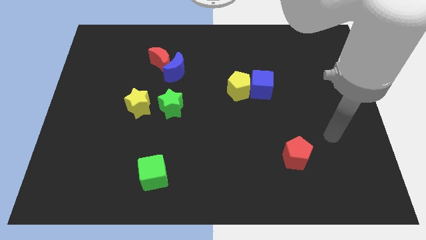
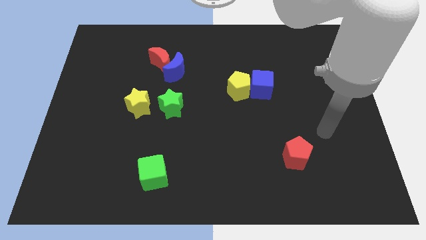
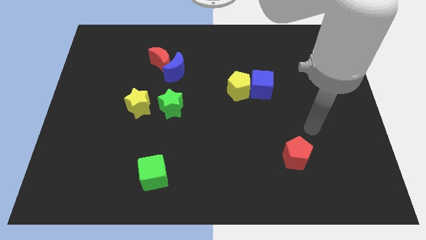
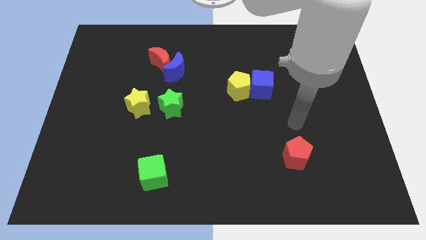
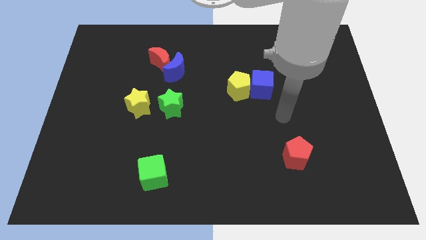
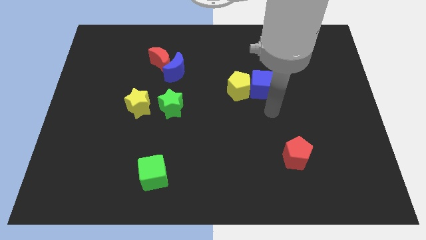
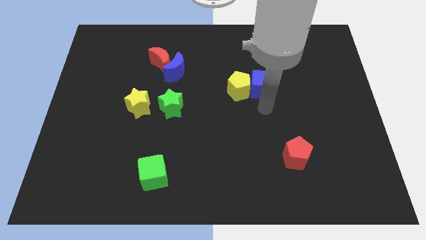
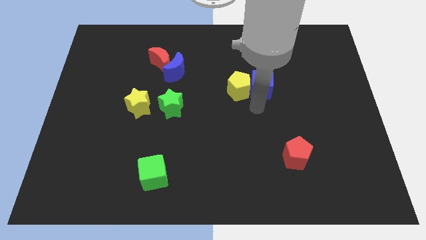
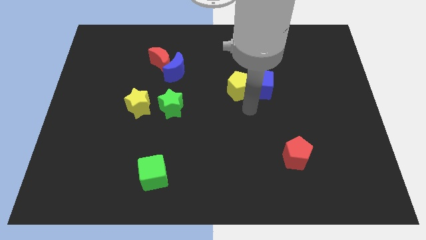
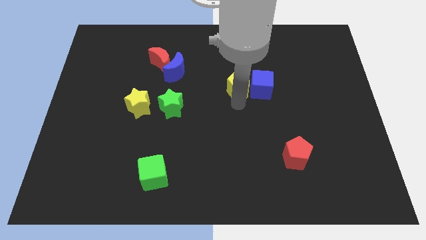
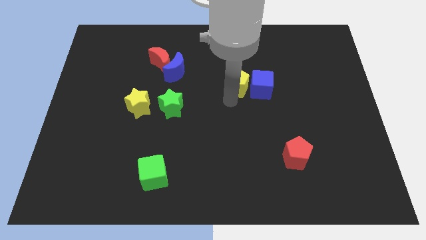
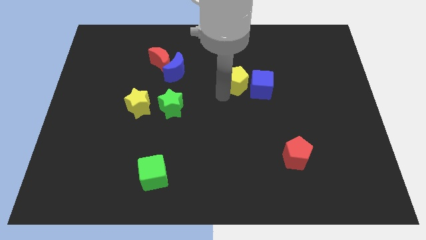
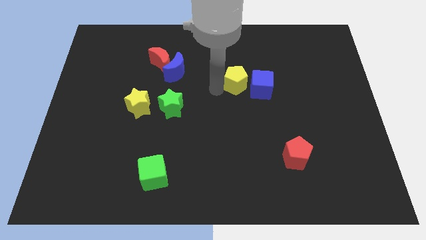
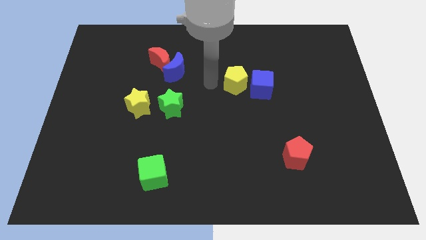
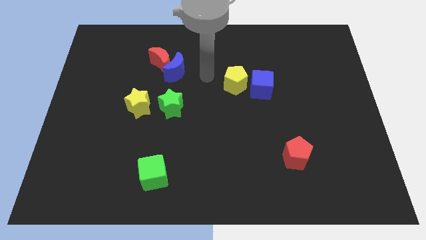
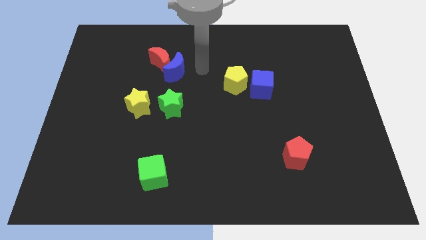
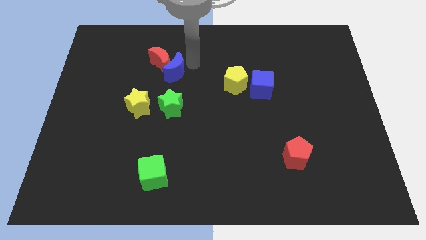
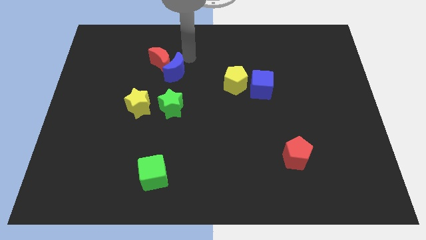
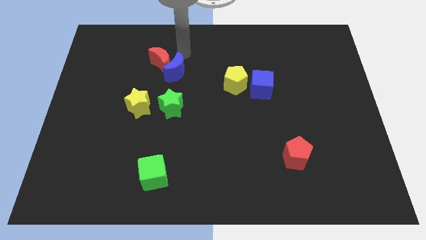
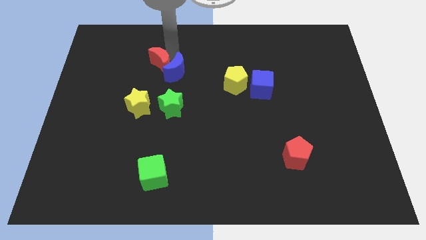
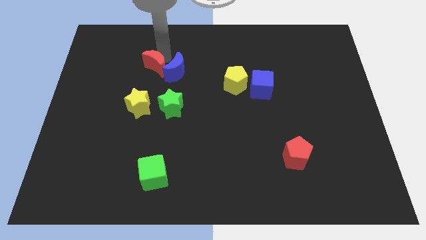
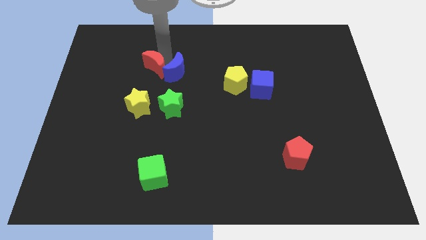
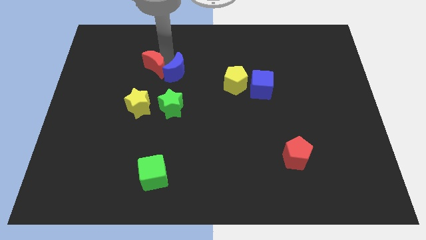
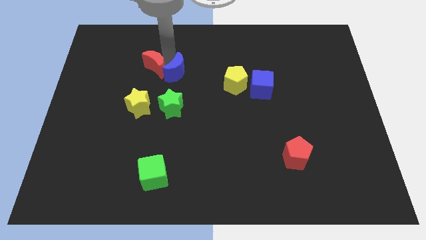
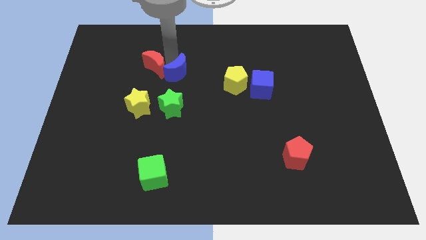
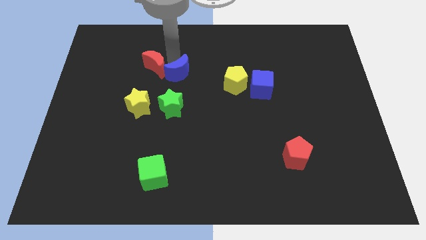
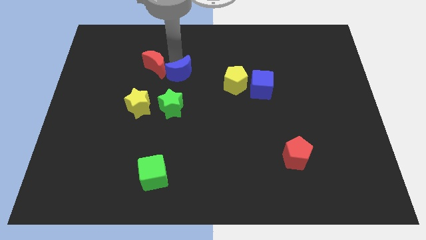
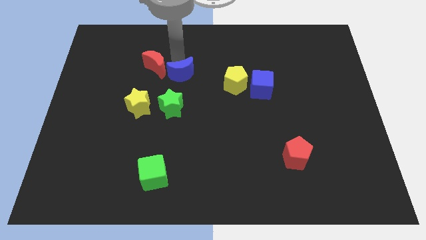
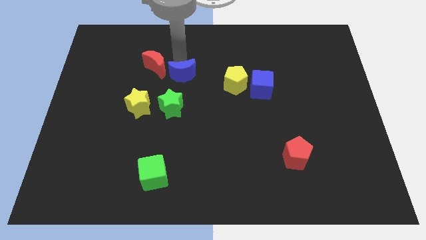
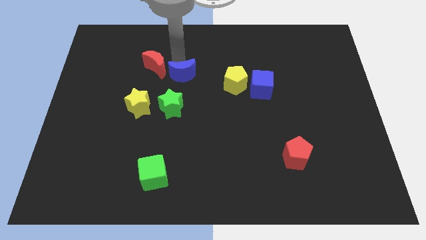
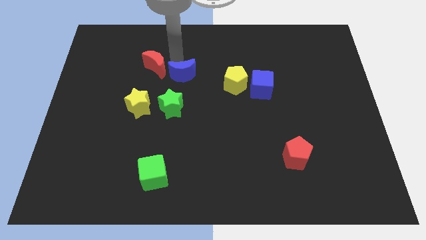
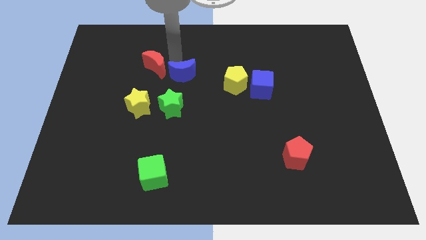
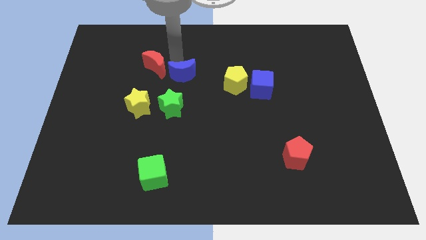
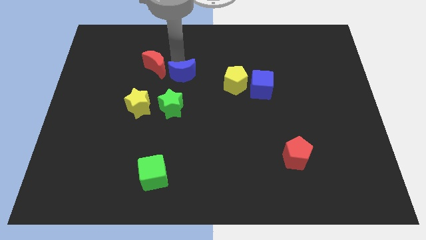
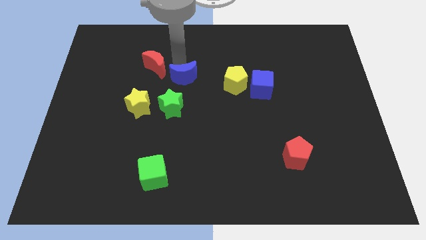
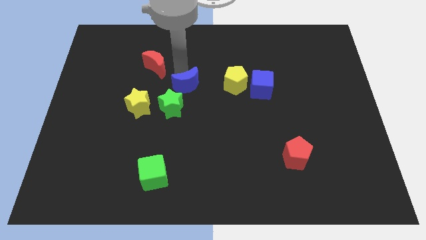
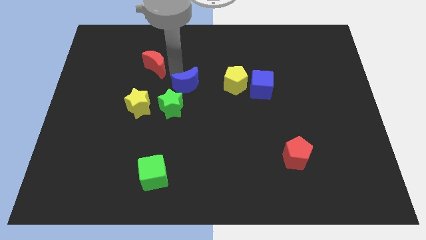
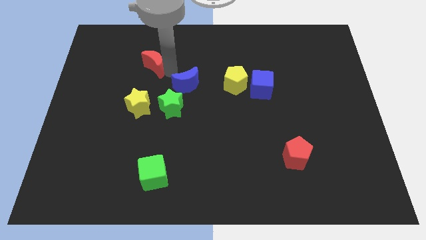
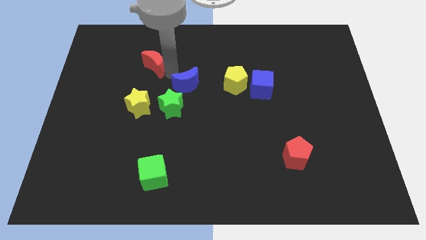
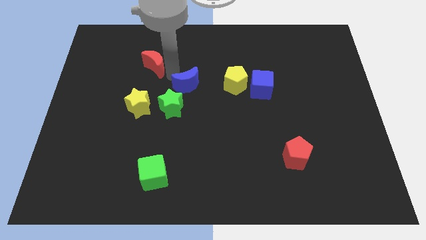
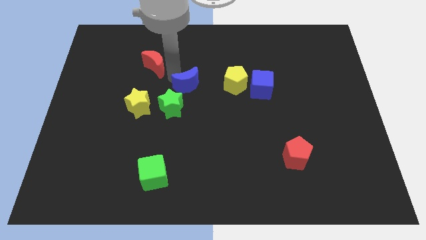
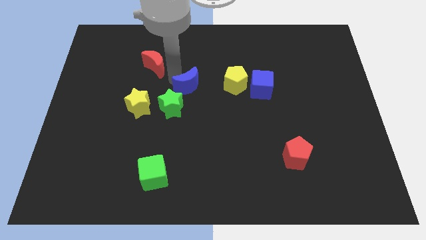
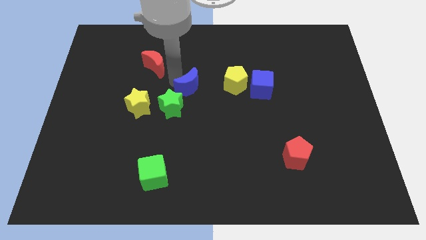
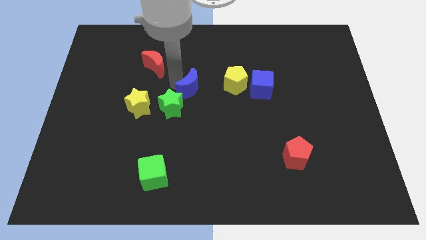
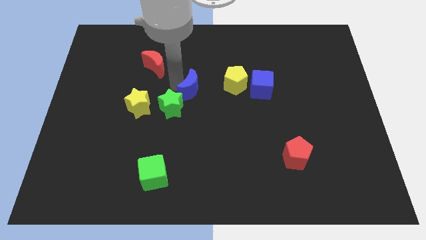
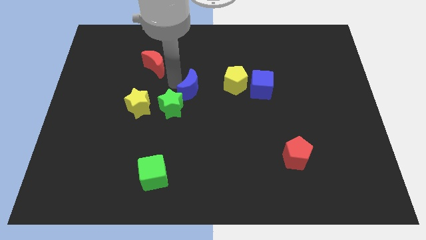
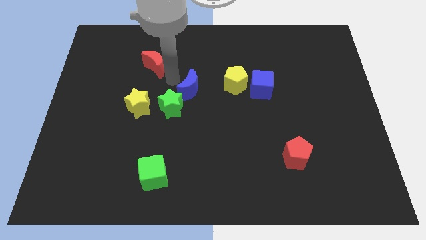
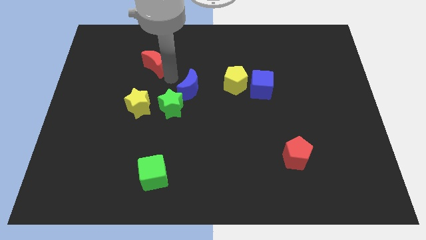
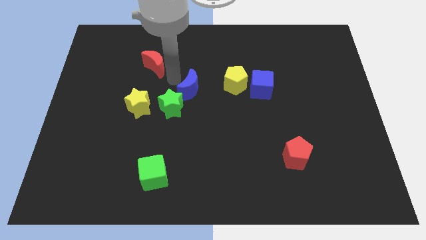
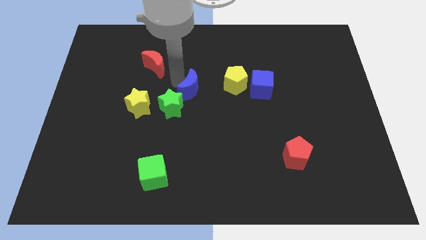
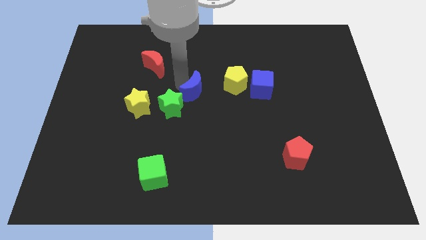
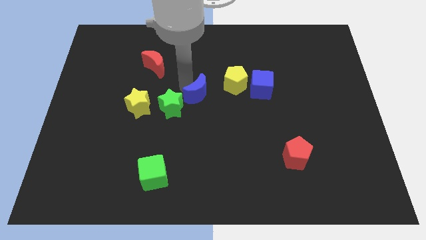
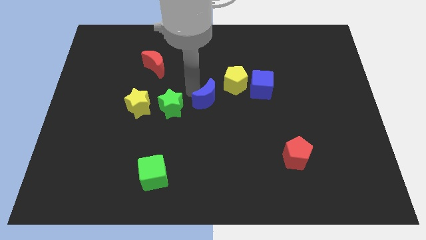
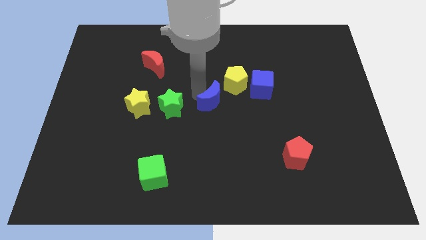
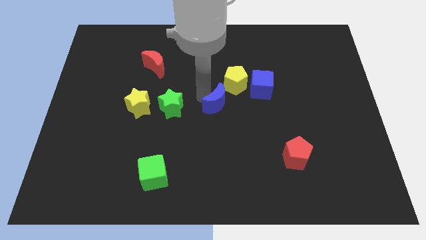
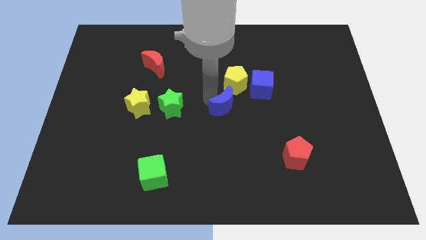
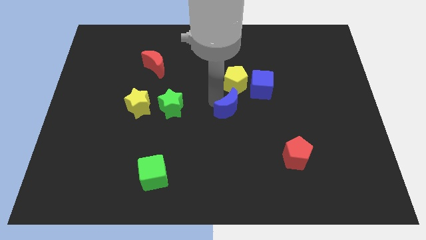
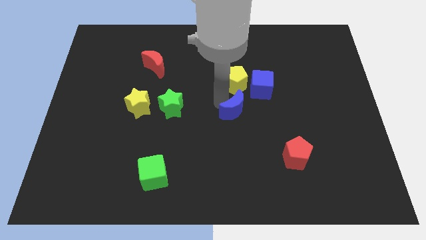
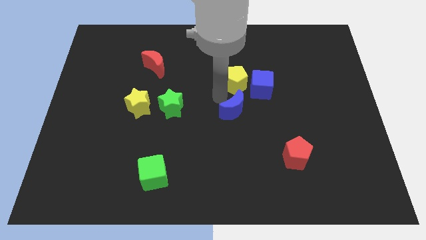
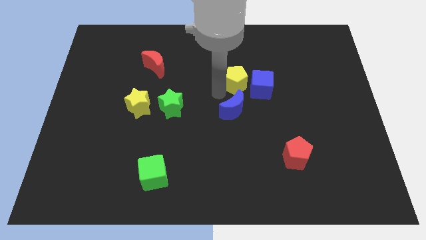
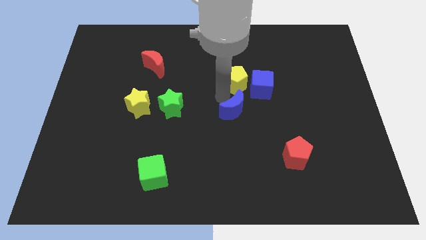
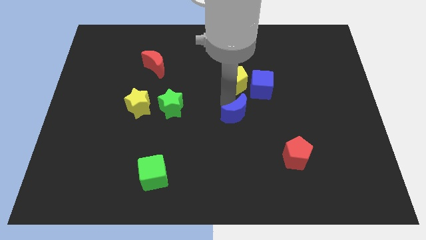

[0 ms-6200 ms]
move the blue moon downwards and to the right diagonally

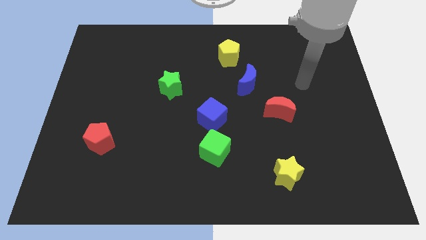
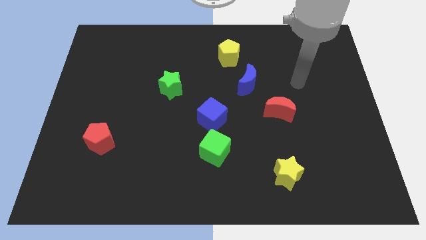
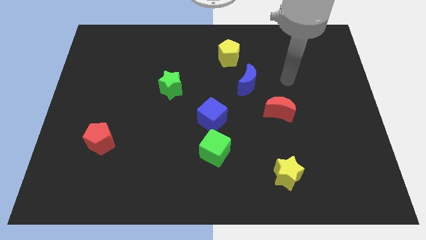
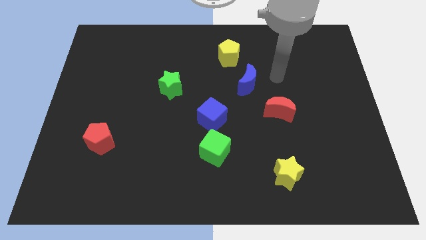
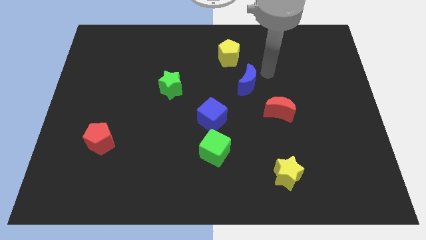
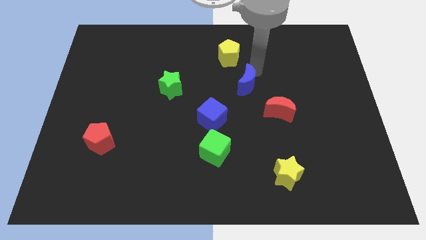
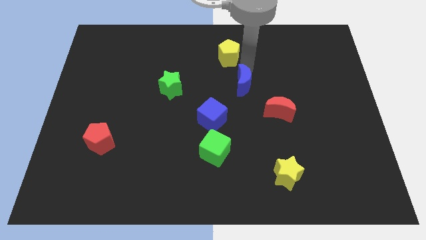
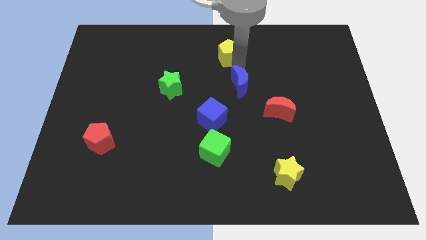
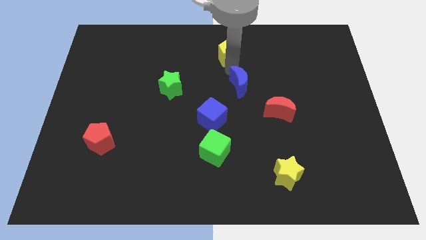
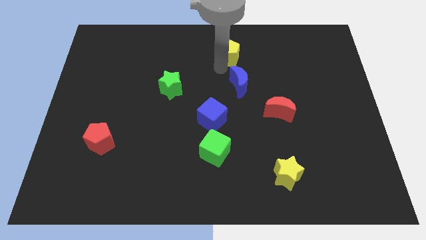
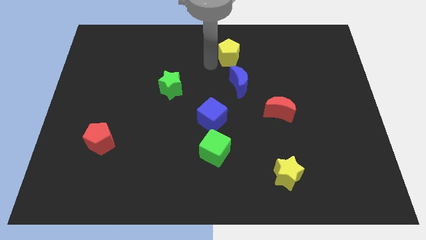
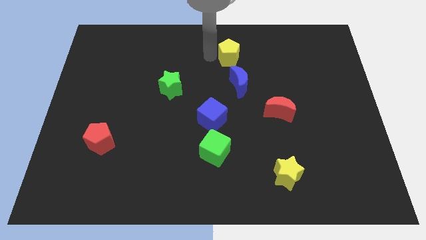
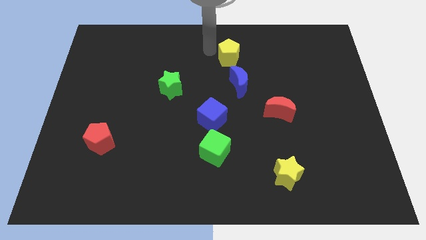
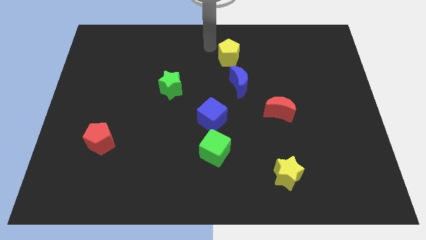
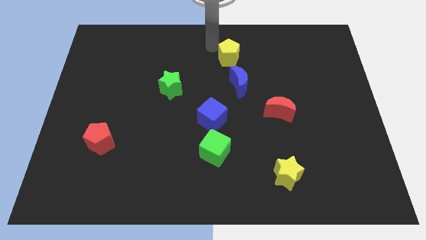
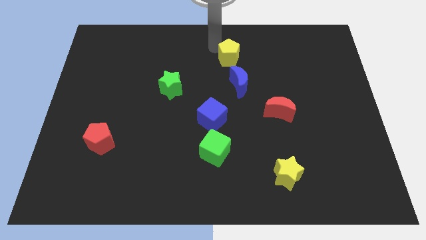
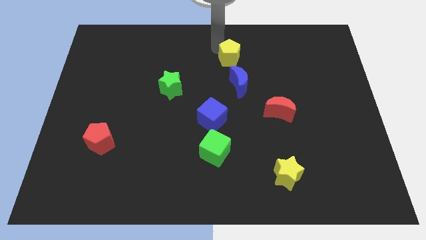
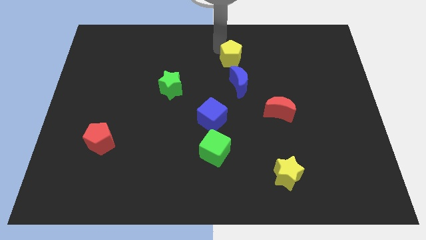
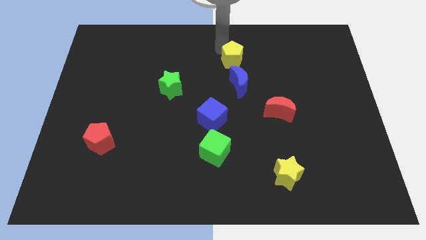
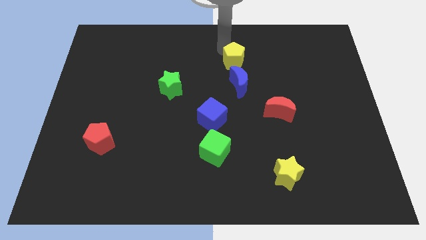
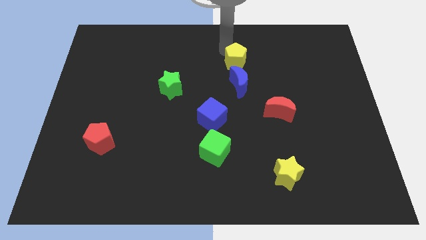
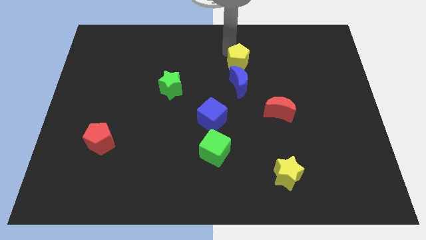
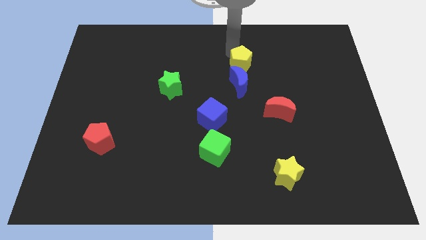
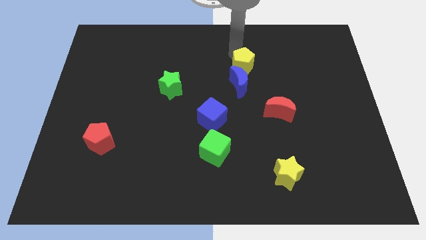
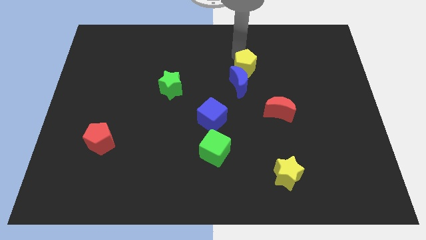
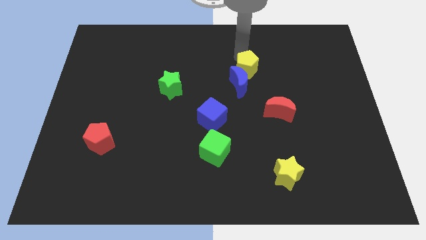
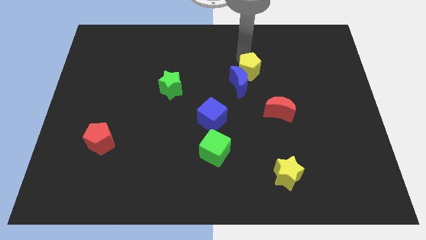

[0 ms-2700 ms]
slide the yellow pentagon down and then to the right slightly
